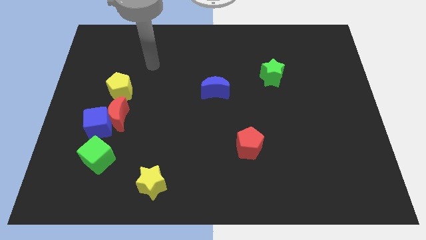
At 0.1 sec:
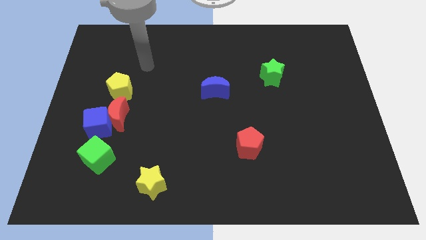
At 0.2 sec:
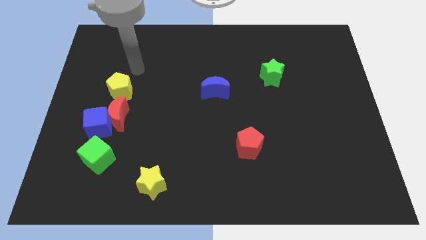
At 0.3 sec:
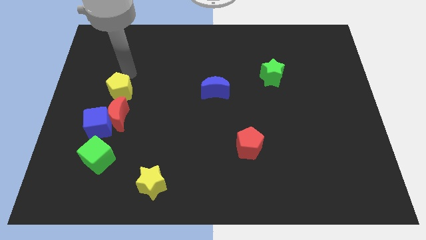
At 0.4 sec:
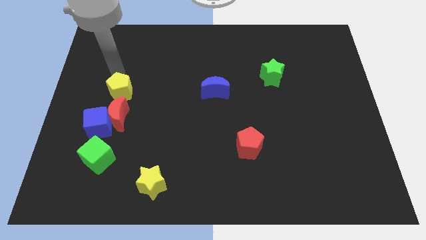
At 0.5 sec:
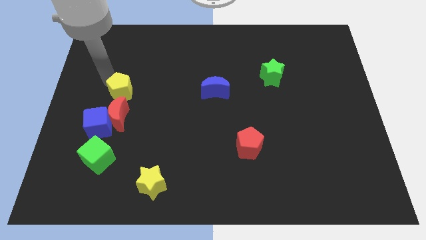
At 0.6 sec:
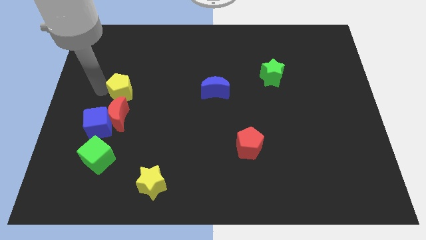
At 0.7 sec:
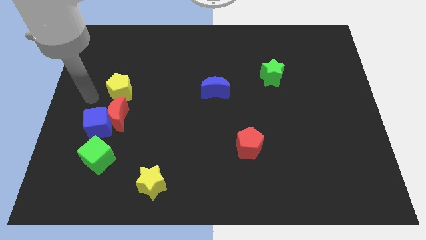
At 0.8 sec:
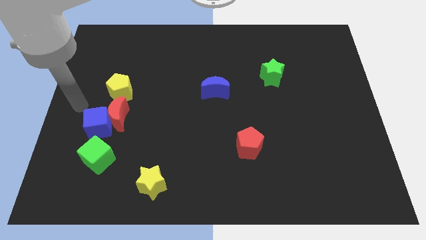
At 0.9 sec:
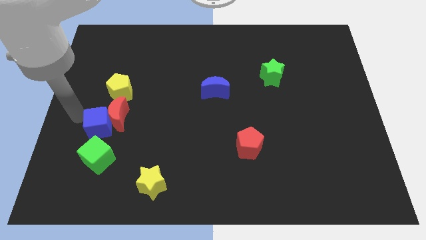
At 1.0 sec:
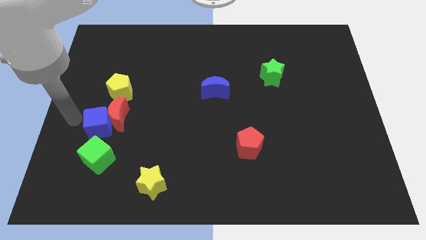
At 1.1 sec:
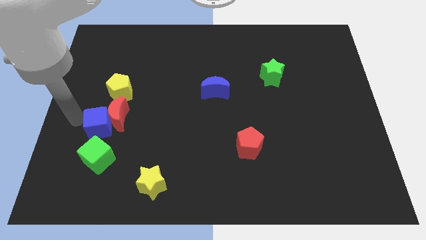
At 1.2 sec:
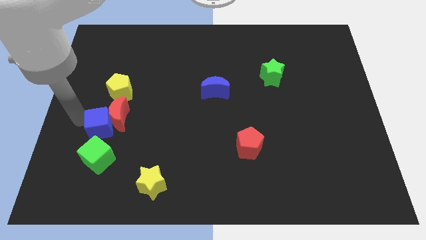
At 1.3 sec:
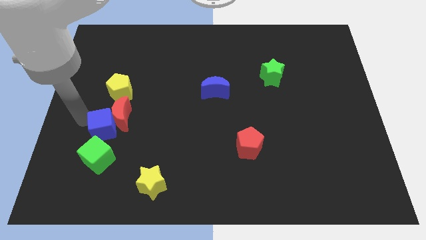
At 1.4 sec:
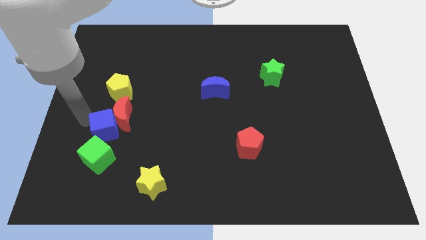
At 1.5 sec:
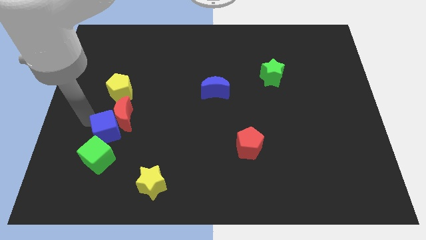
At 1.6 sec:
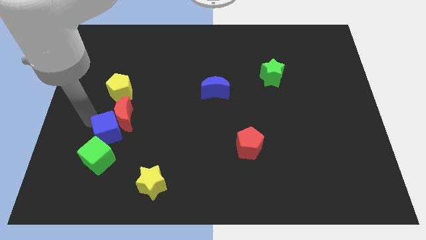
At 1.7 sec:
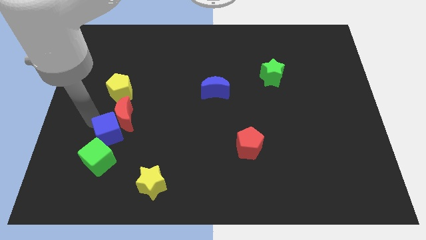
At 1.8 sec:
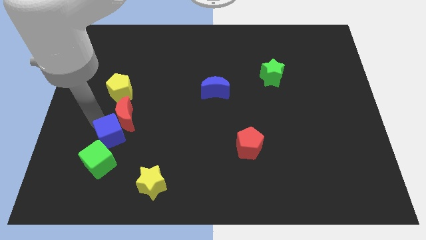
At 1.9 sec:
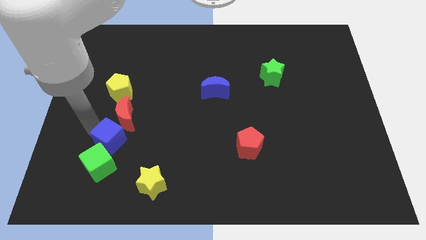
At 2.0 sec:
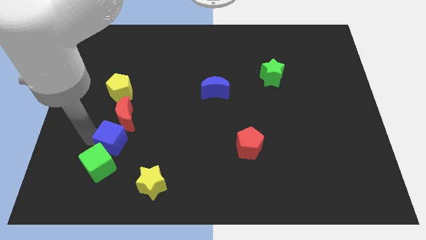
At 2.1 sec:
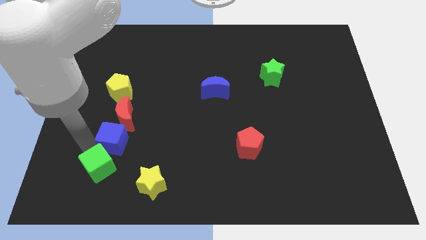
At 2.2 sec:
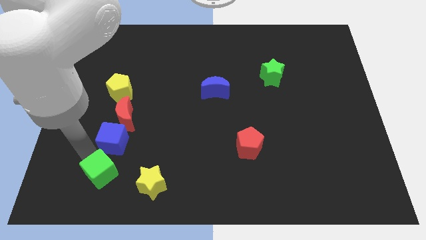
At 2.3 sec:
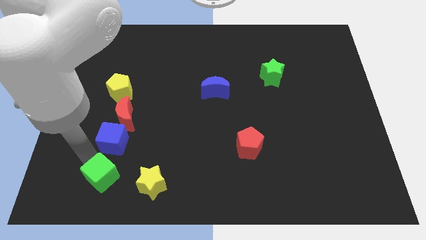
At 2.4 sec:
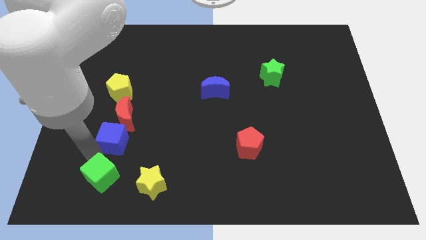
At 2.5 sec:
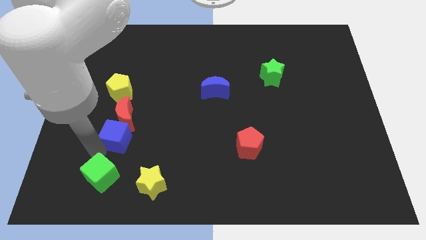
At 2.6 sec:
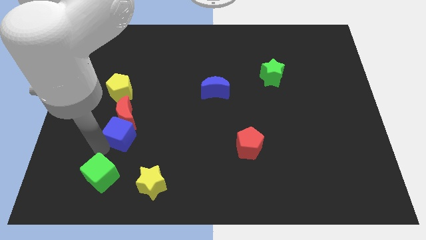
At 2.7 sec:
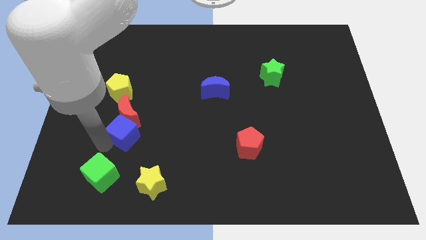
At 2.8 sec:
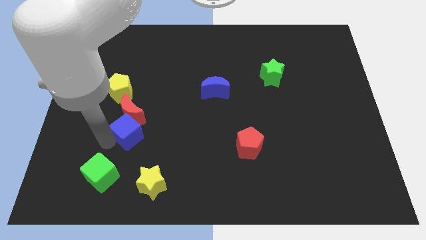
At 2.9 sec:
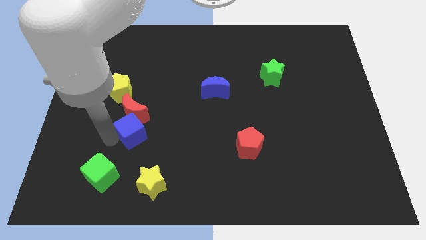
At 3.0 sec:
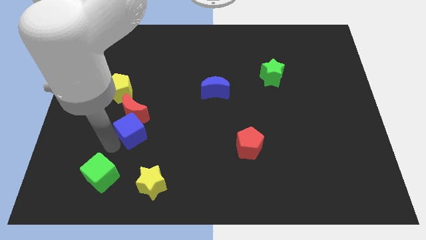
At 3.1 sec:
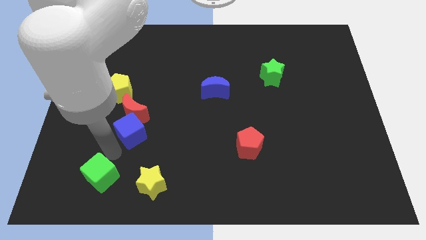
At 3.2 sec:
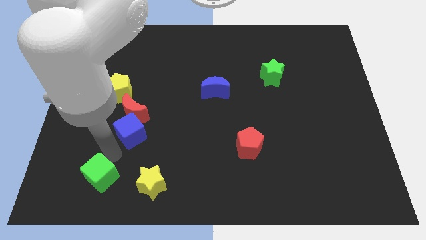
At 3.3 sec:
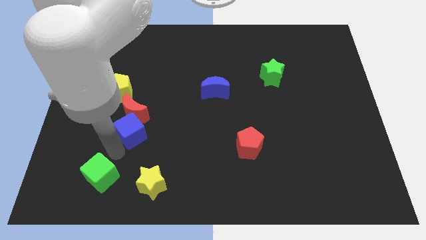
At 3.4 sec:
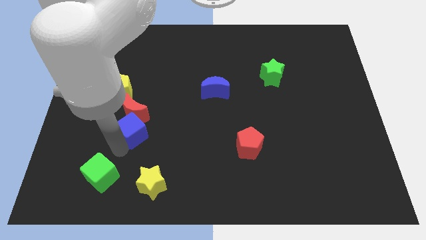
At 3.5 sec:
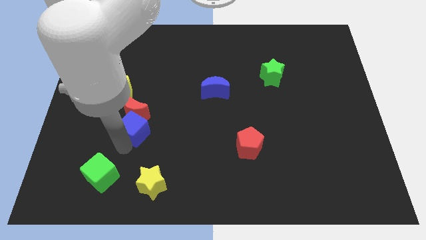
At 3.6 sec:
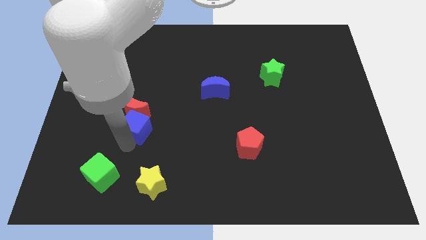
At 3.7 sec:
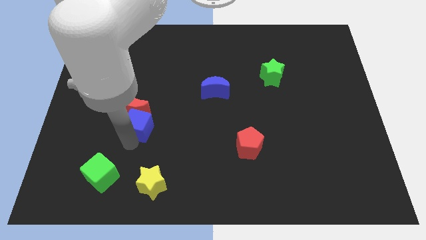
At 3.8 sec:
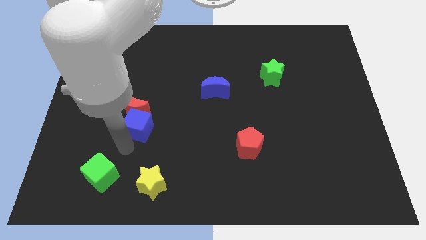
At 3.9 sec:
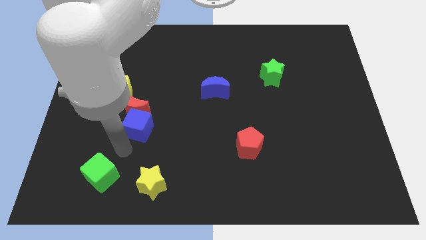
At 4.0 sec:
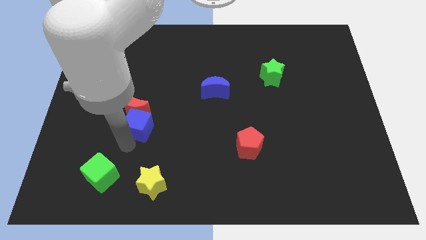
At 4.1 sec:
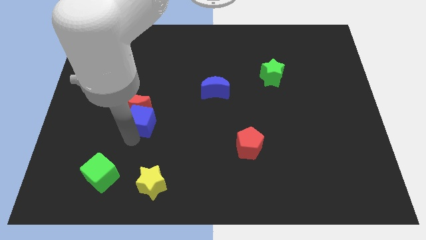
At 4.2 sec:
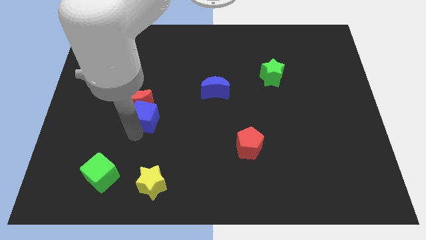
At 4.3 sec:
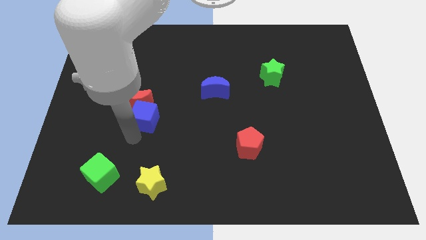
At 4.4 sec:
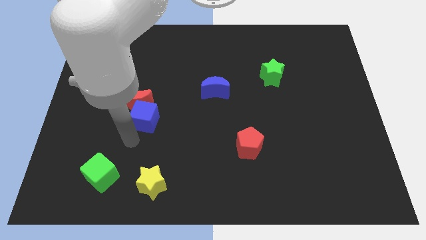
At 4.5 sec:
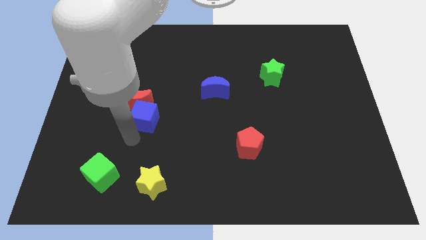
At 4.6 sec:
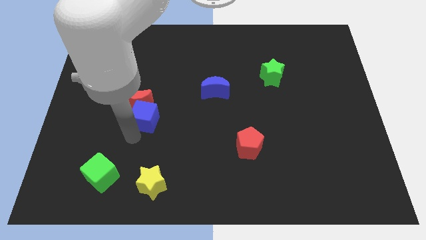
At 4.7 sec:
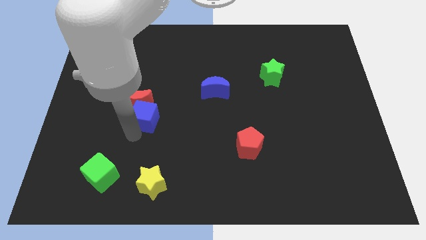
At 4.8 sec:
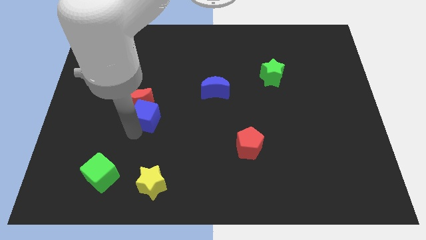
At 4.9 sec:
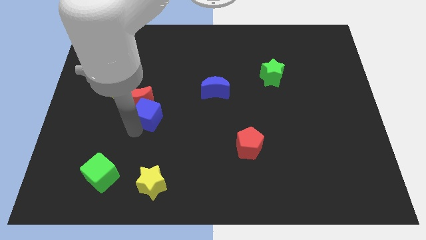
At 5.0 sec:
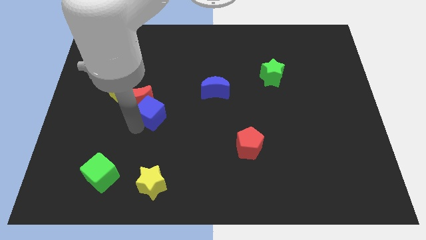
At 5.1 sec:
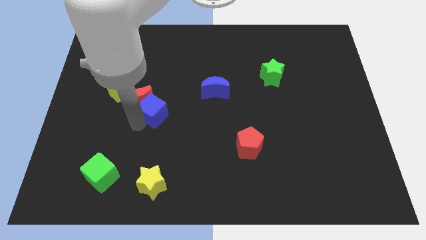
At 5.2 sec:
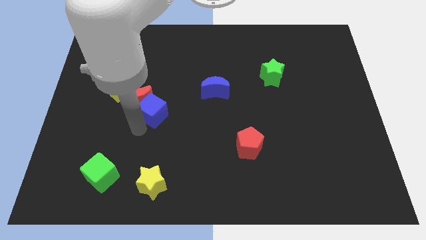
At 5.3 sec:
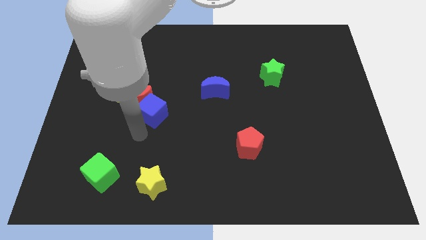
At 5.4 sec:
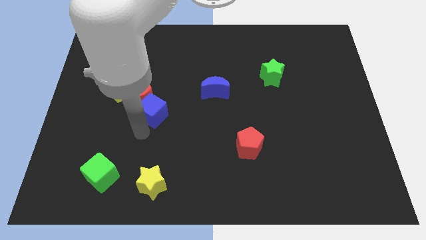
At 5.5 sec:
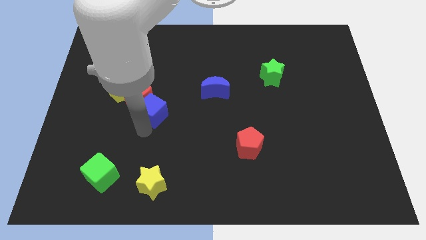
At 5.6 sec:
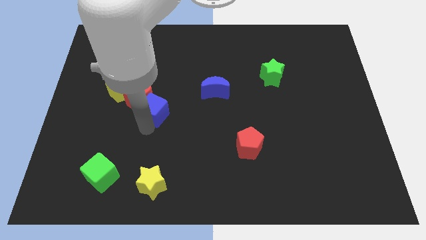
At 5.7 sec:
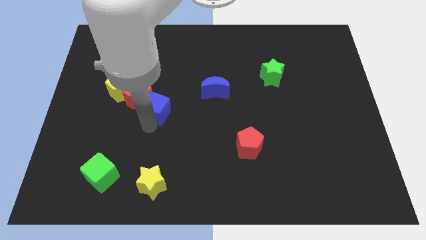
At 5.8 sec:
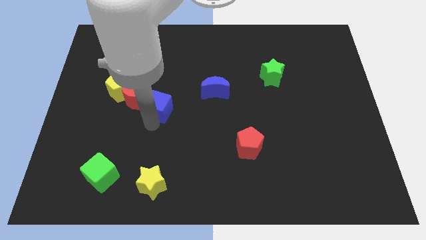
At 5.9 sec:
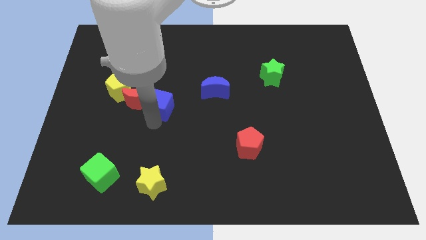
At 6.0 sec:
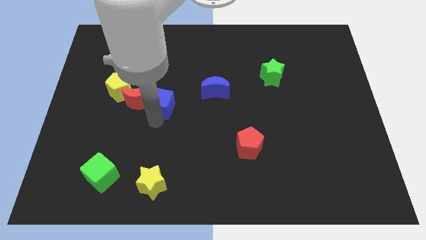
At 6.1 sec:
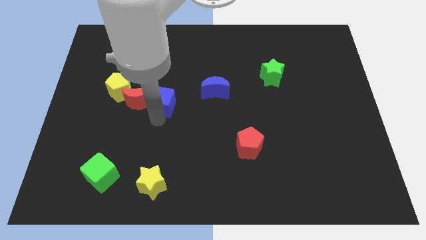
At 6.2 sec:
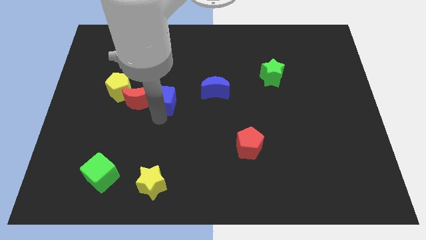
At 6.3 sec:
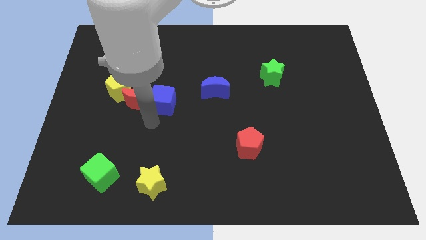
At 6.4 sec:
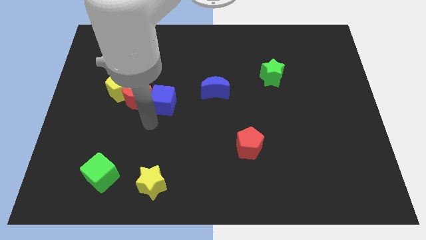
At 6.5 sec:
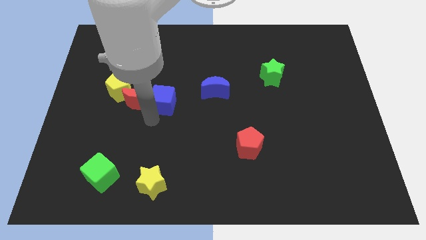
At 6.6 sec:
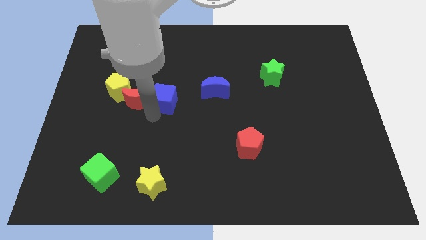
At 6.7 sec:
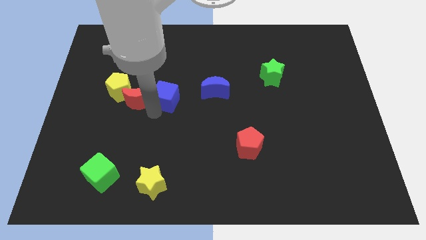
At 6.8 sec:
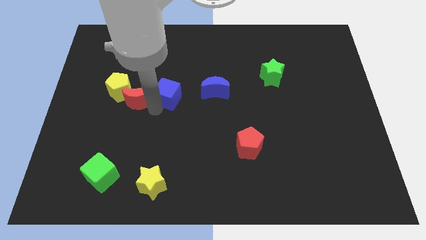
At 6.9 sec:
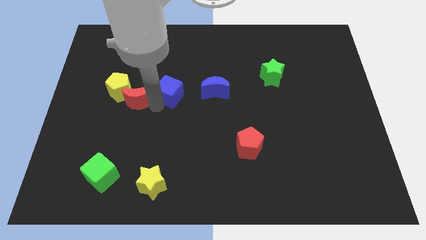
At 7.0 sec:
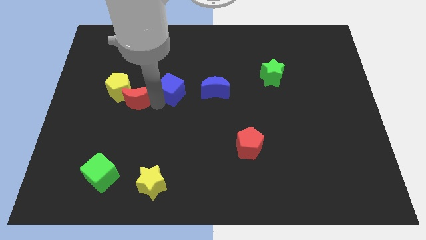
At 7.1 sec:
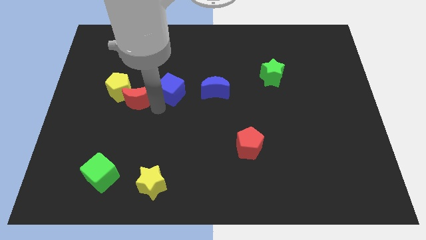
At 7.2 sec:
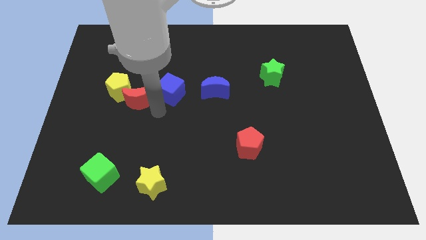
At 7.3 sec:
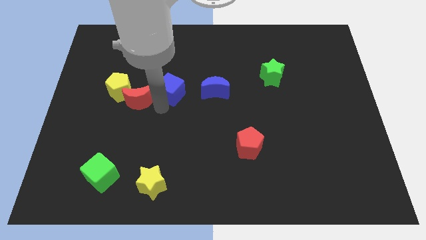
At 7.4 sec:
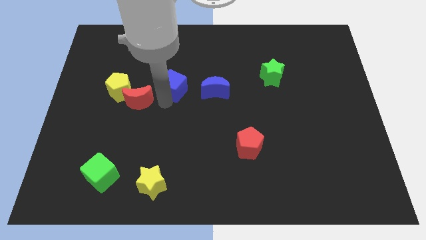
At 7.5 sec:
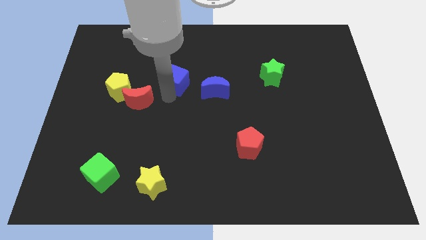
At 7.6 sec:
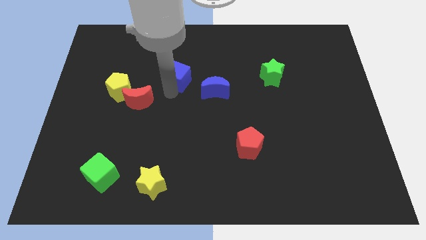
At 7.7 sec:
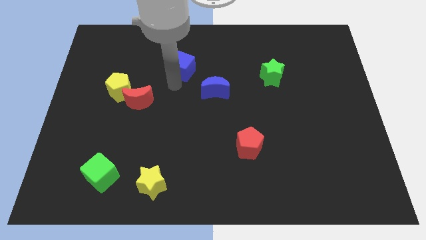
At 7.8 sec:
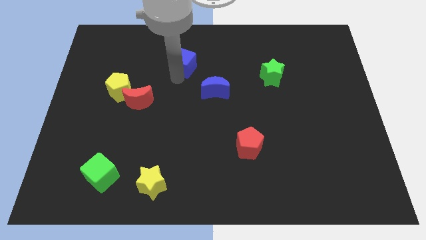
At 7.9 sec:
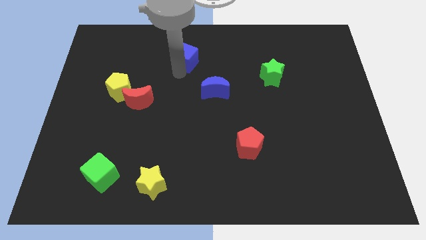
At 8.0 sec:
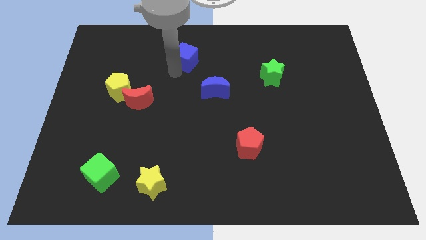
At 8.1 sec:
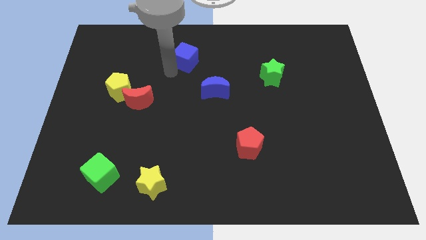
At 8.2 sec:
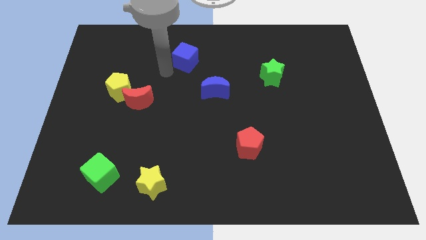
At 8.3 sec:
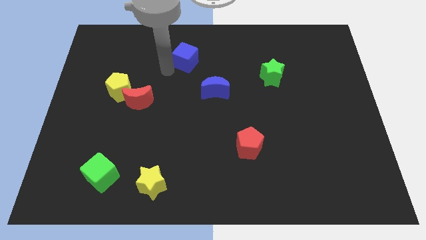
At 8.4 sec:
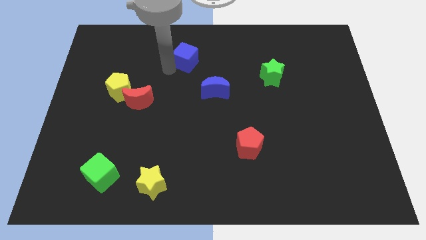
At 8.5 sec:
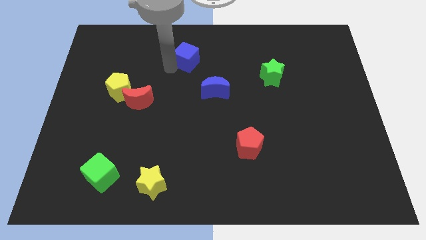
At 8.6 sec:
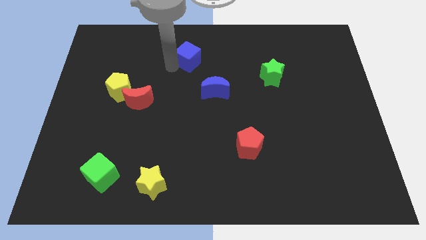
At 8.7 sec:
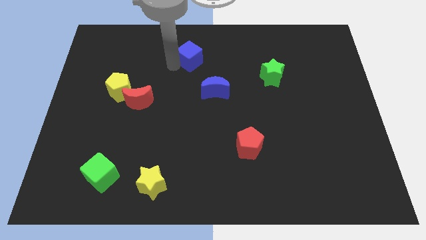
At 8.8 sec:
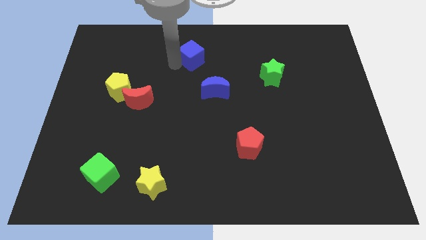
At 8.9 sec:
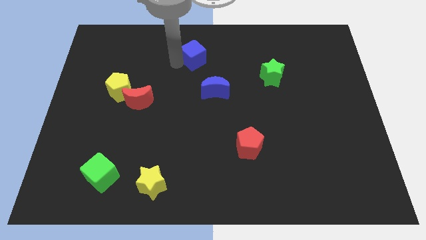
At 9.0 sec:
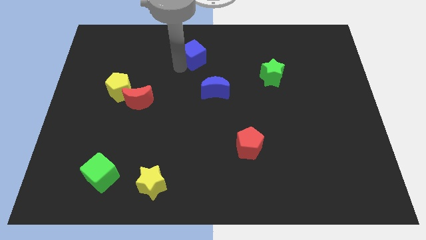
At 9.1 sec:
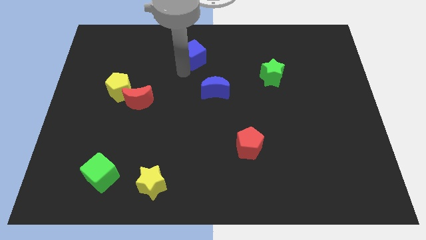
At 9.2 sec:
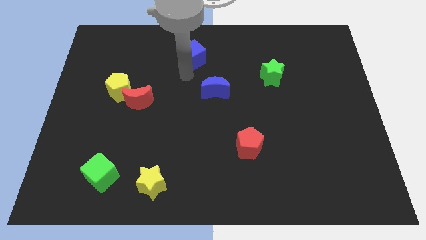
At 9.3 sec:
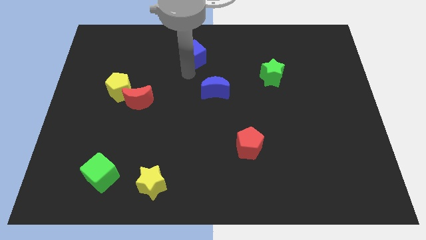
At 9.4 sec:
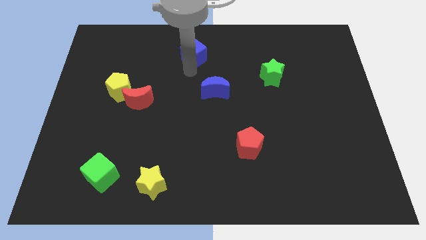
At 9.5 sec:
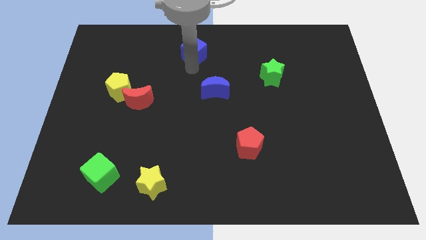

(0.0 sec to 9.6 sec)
push the blue cube to the top side
